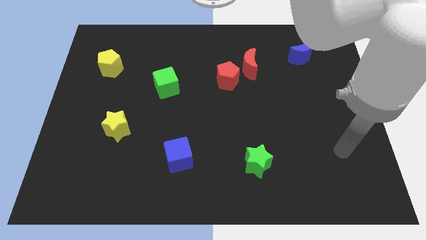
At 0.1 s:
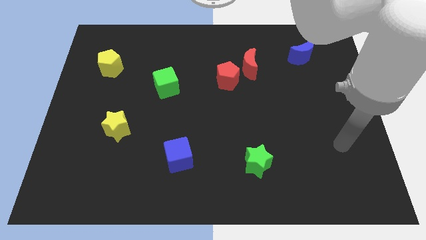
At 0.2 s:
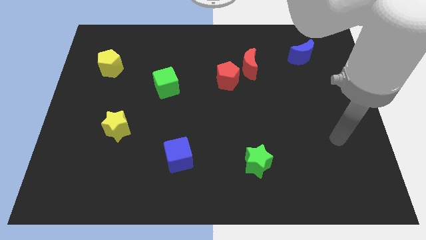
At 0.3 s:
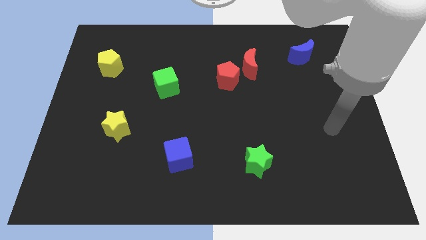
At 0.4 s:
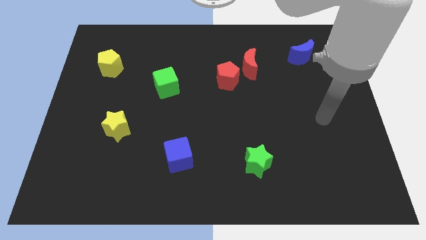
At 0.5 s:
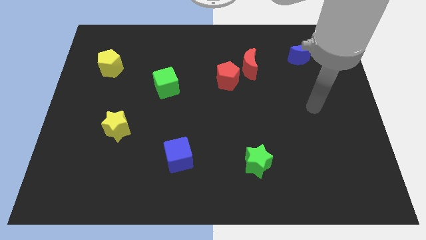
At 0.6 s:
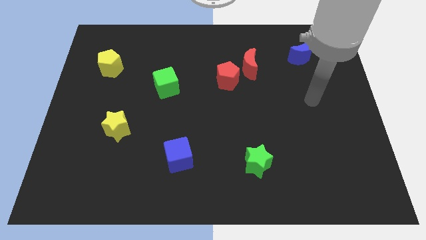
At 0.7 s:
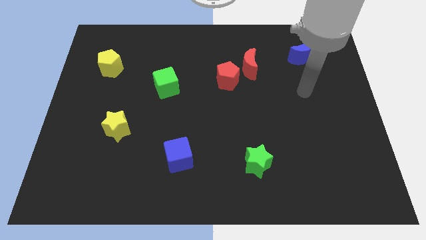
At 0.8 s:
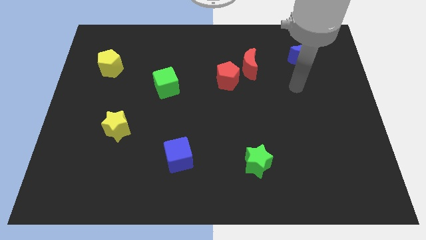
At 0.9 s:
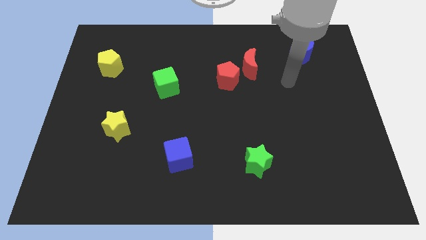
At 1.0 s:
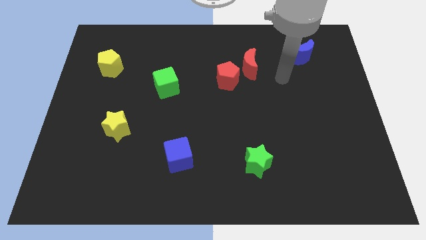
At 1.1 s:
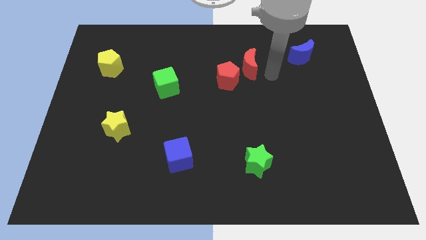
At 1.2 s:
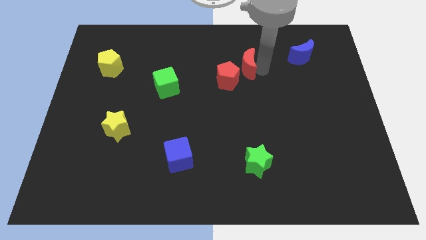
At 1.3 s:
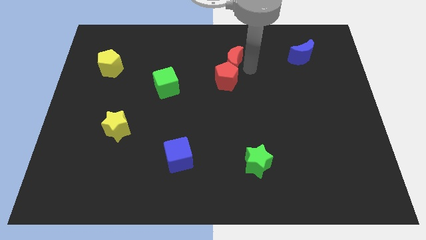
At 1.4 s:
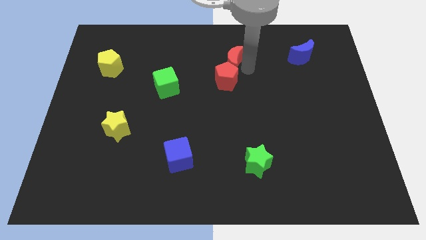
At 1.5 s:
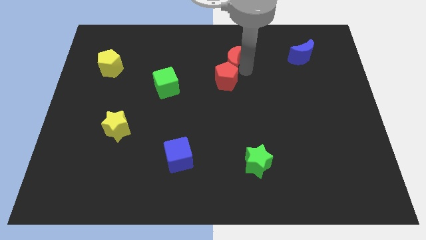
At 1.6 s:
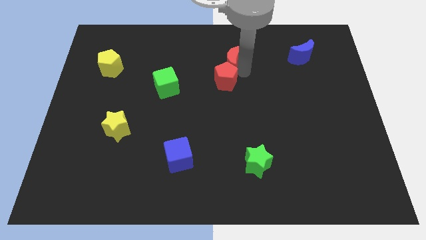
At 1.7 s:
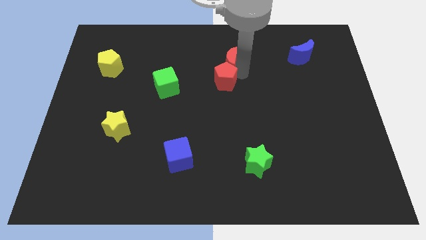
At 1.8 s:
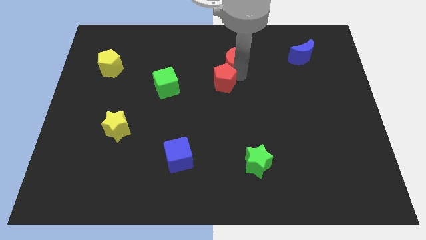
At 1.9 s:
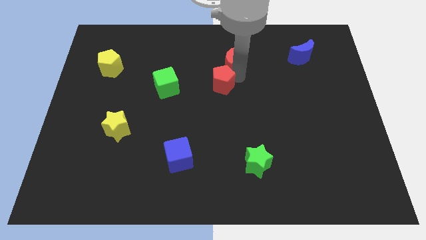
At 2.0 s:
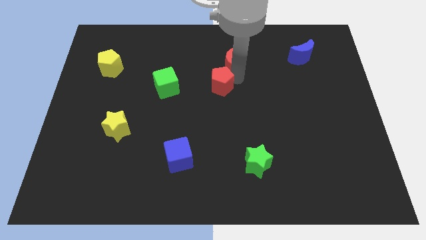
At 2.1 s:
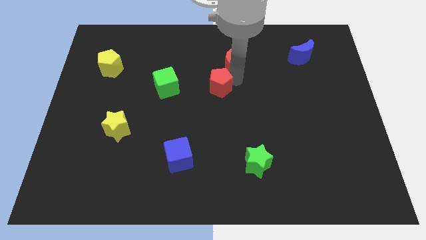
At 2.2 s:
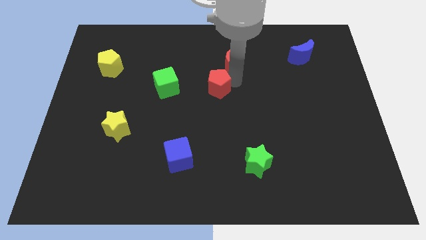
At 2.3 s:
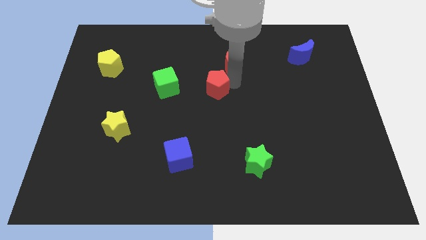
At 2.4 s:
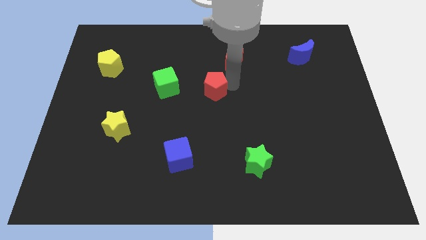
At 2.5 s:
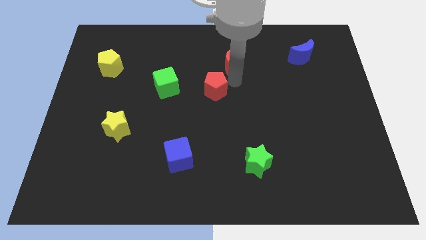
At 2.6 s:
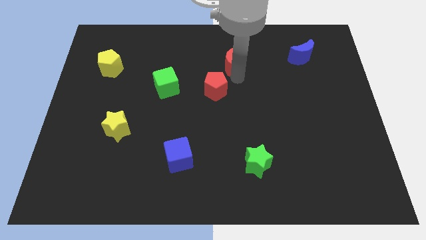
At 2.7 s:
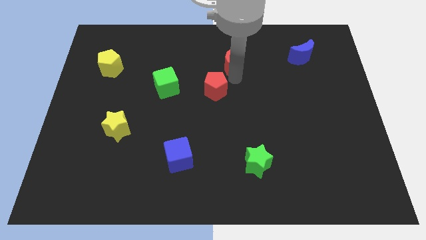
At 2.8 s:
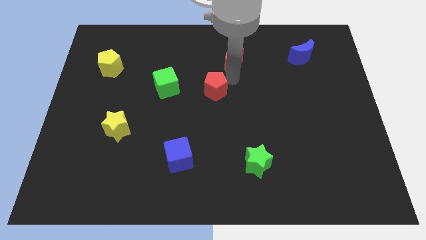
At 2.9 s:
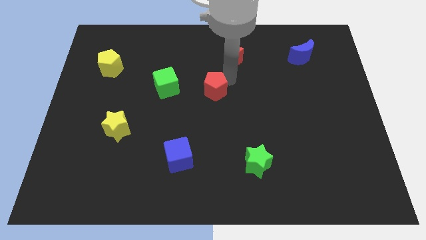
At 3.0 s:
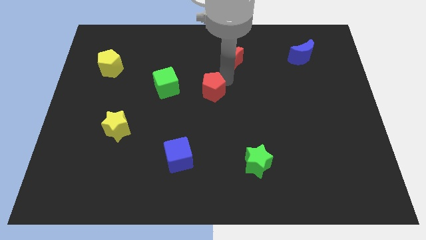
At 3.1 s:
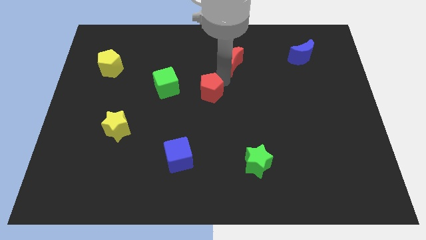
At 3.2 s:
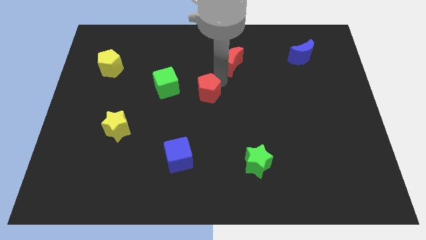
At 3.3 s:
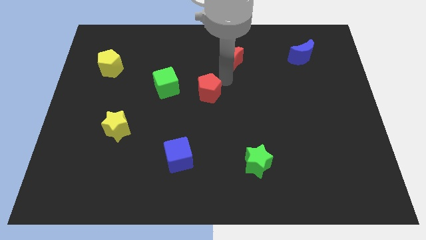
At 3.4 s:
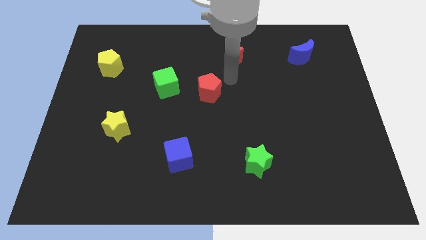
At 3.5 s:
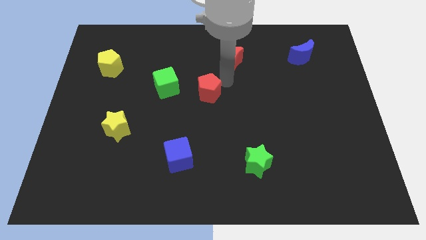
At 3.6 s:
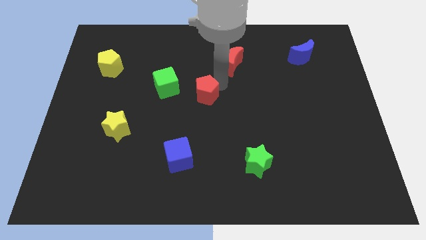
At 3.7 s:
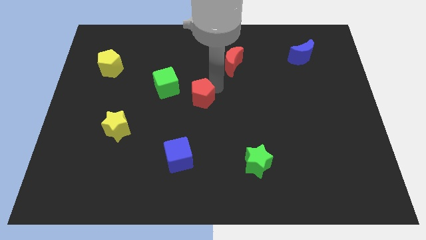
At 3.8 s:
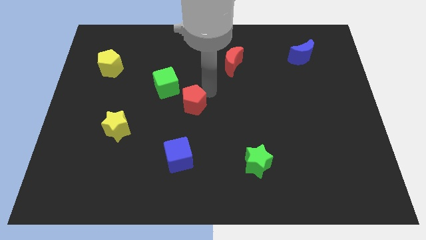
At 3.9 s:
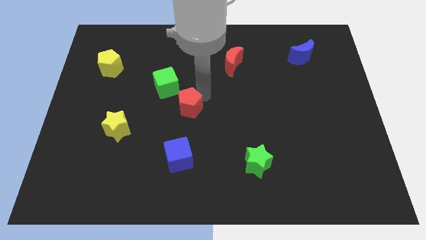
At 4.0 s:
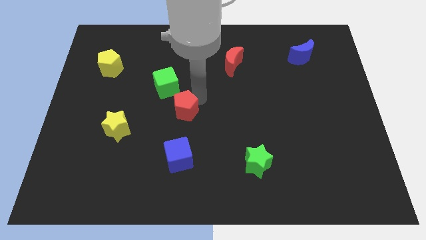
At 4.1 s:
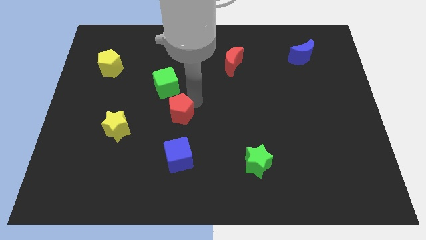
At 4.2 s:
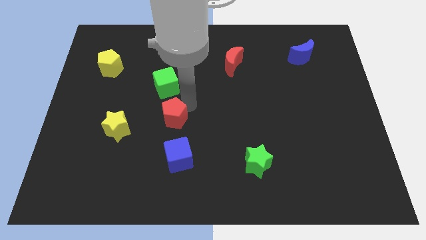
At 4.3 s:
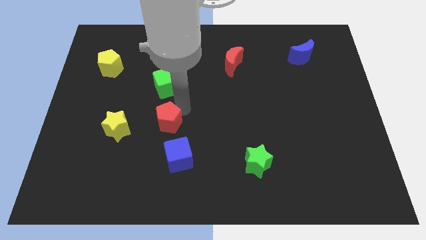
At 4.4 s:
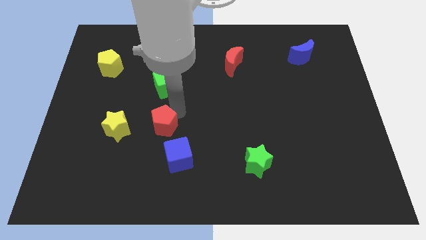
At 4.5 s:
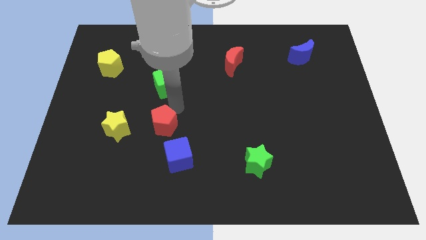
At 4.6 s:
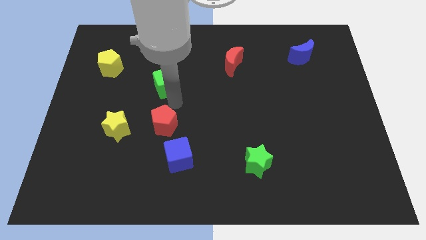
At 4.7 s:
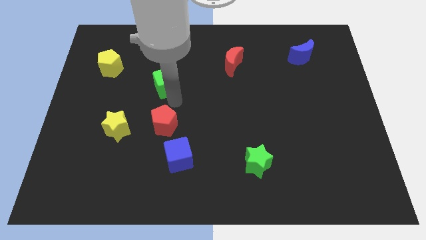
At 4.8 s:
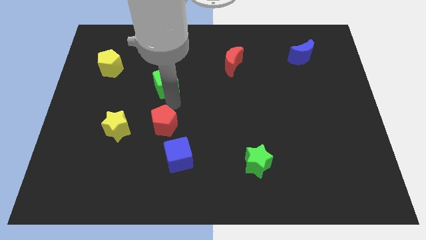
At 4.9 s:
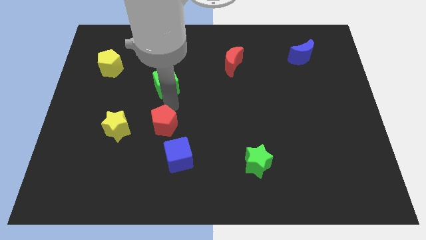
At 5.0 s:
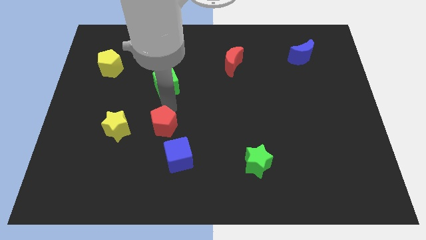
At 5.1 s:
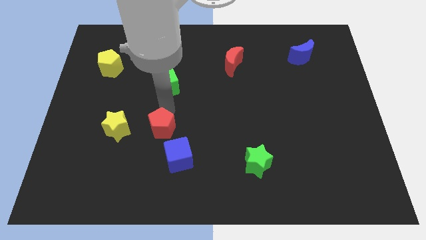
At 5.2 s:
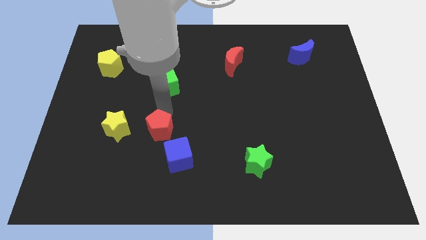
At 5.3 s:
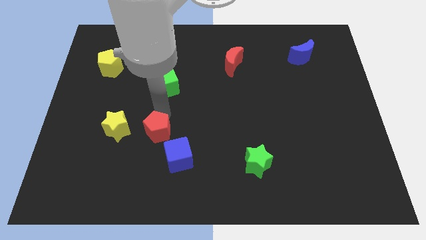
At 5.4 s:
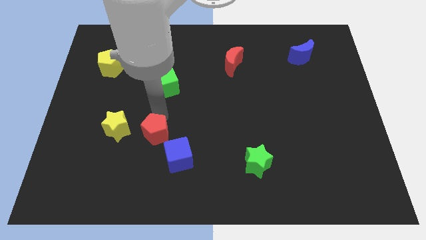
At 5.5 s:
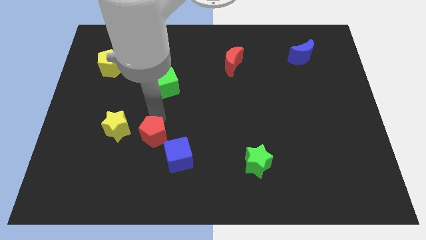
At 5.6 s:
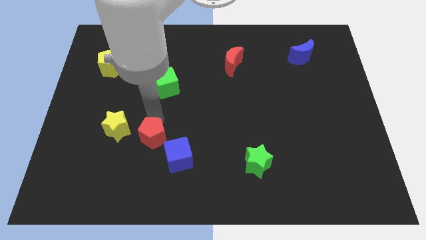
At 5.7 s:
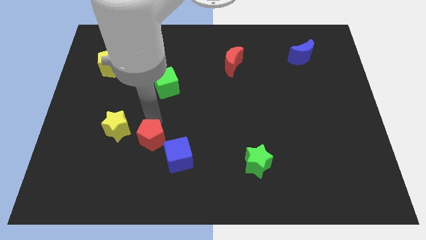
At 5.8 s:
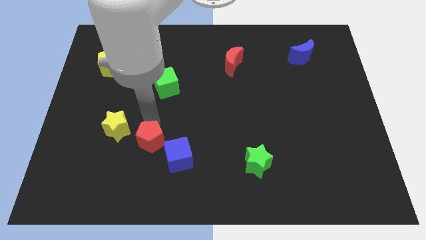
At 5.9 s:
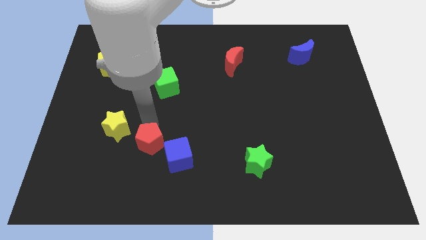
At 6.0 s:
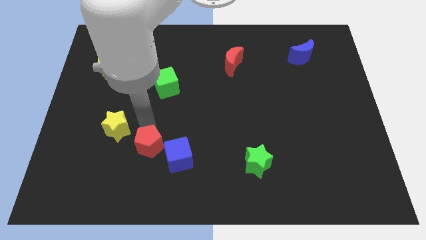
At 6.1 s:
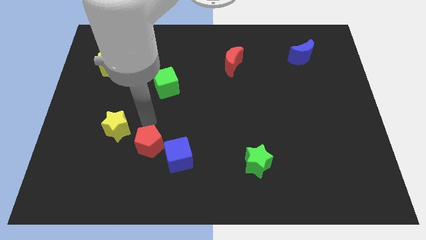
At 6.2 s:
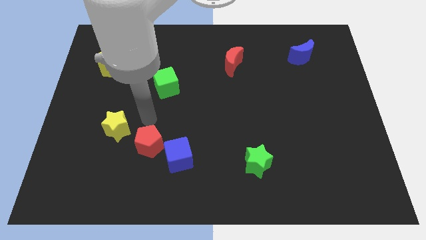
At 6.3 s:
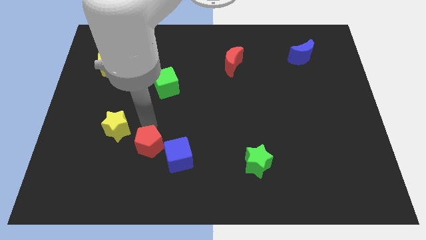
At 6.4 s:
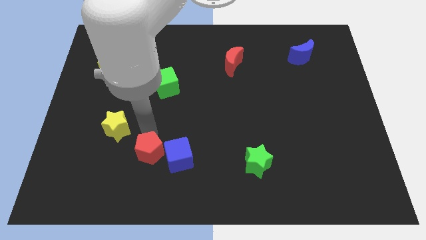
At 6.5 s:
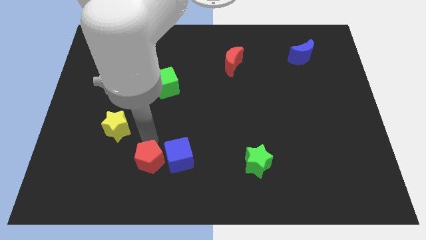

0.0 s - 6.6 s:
move the red pentagon diagonally down and to the left of the blue cube
